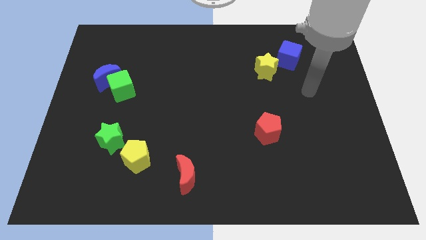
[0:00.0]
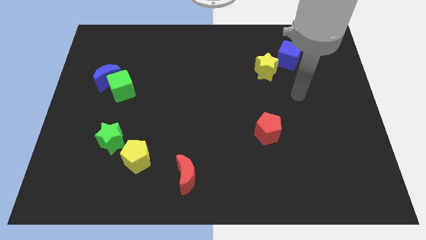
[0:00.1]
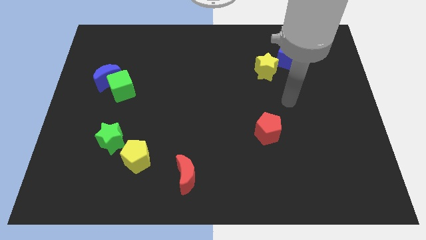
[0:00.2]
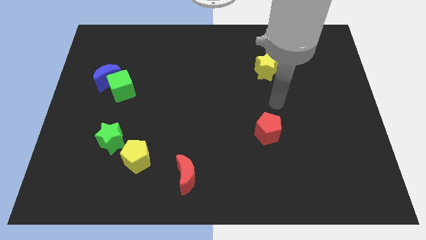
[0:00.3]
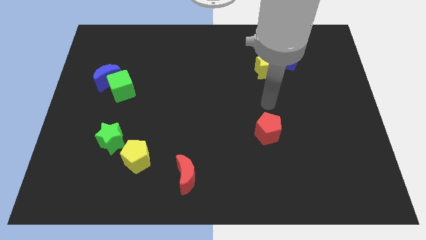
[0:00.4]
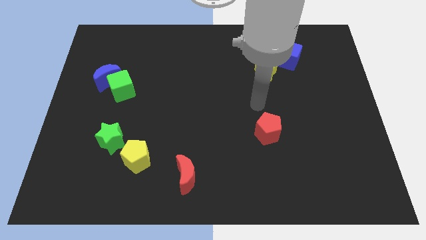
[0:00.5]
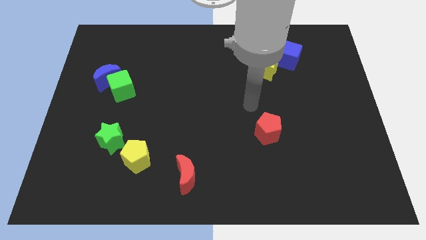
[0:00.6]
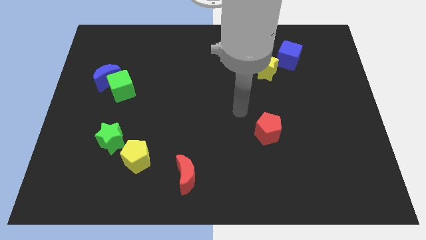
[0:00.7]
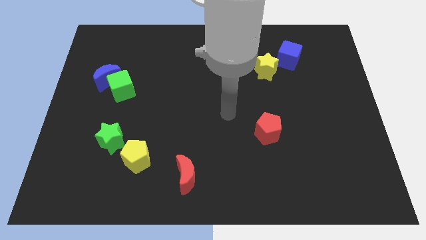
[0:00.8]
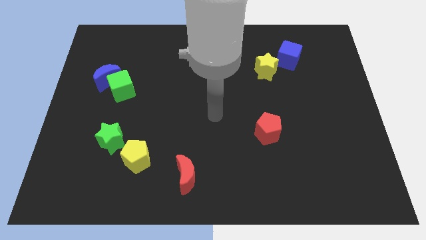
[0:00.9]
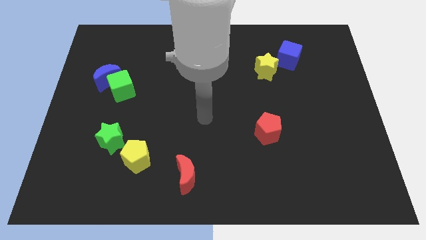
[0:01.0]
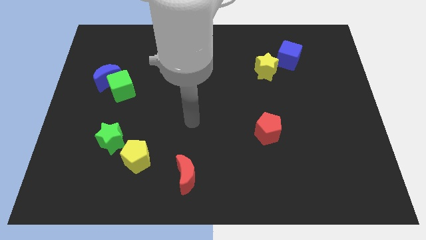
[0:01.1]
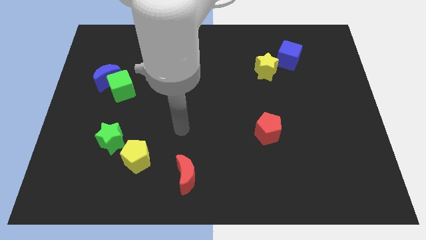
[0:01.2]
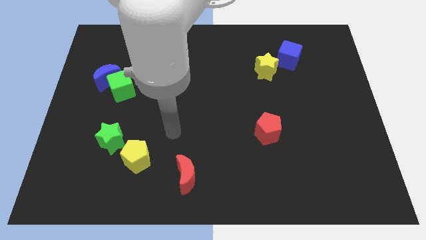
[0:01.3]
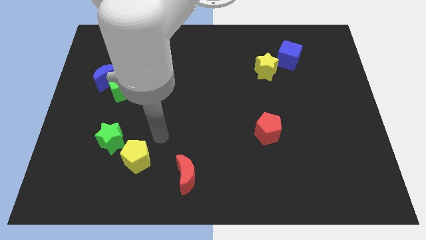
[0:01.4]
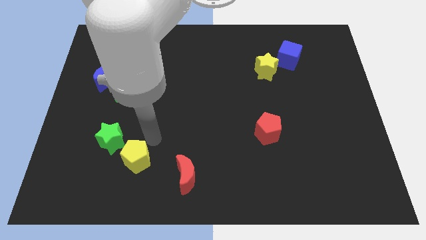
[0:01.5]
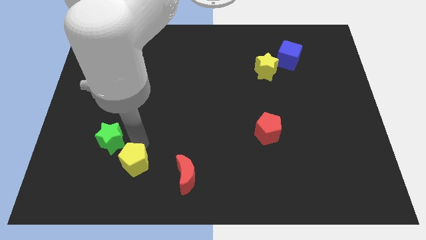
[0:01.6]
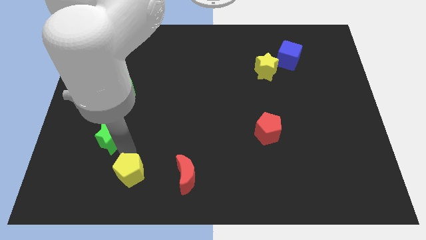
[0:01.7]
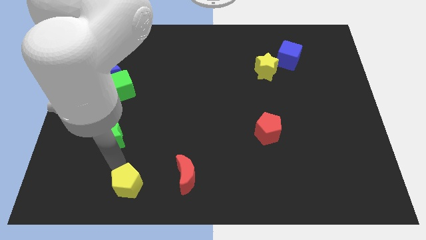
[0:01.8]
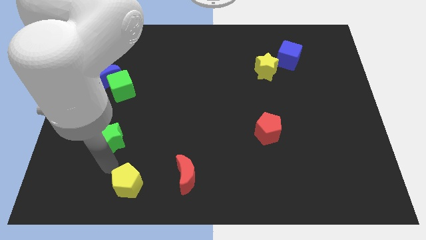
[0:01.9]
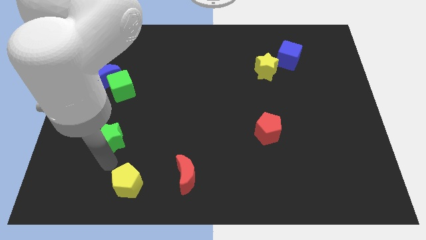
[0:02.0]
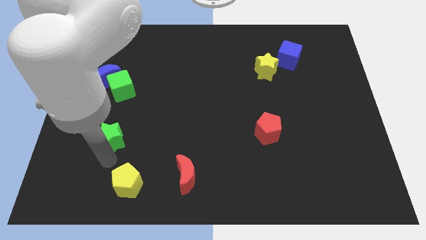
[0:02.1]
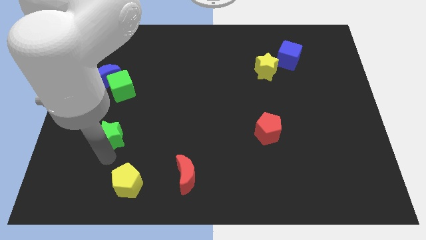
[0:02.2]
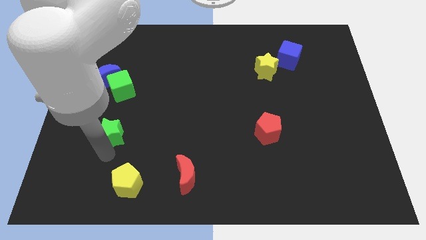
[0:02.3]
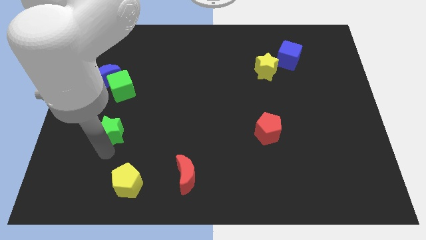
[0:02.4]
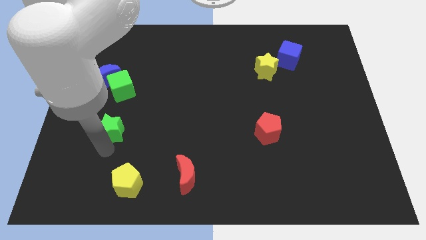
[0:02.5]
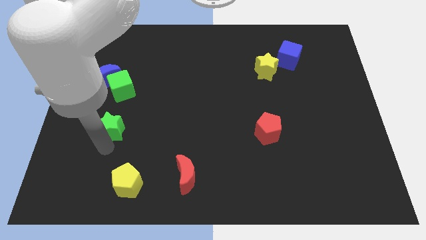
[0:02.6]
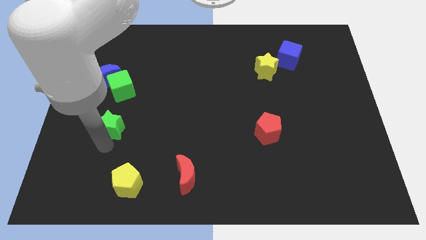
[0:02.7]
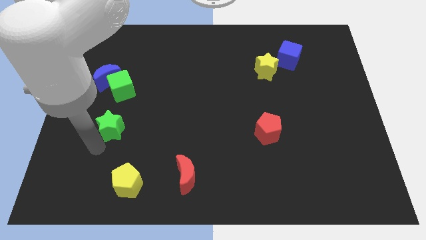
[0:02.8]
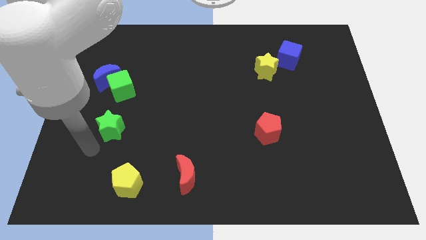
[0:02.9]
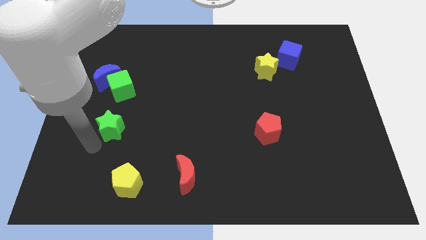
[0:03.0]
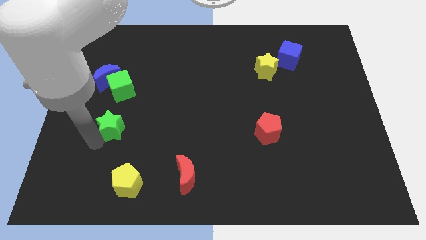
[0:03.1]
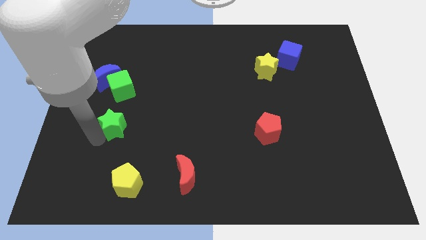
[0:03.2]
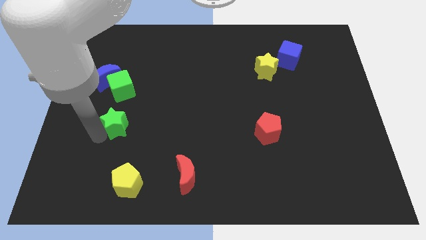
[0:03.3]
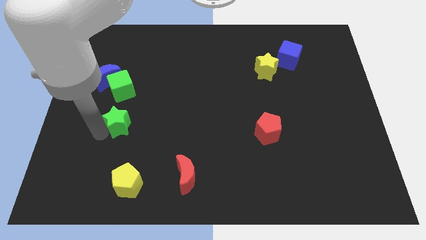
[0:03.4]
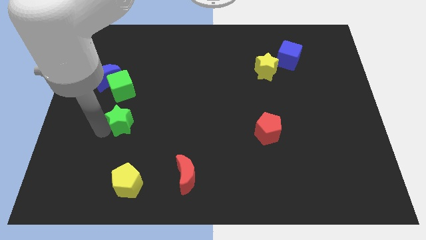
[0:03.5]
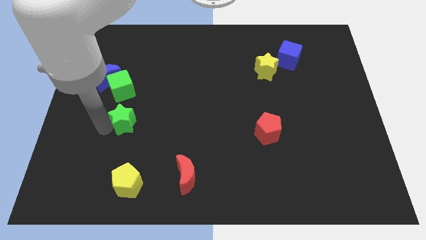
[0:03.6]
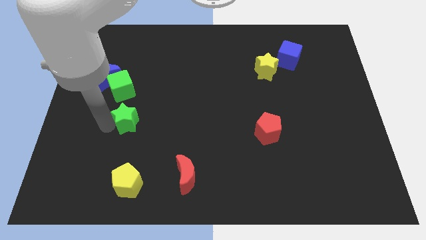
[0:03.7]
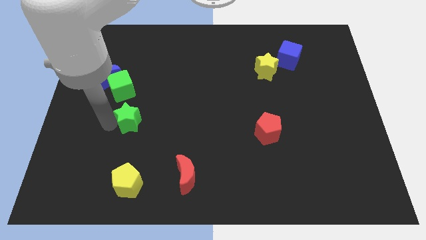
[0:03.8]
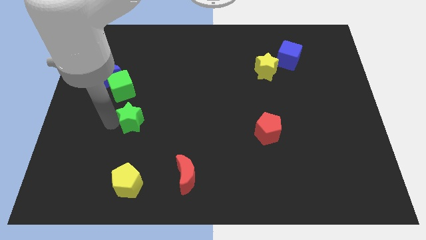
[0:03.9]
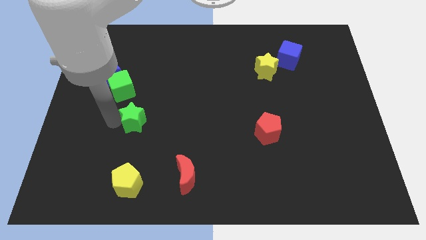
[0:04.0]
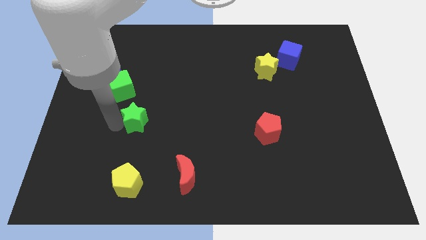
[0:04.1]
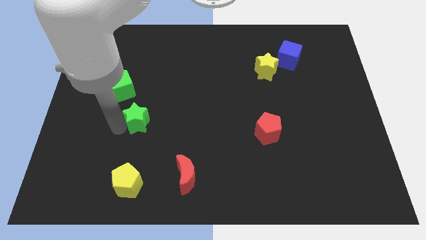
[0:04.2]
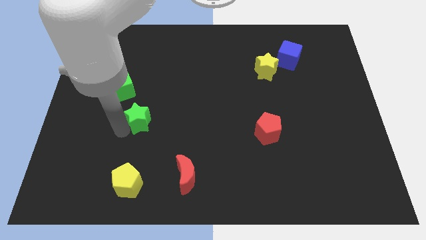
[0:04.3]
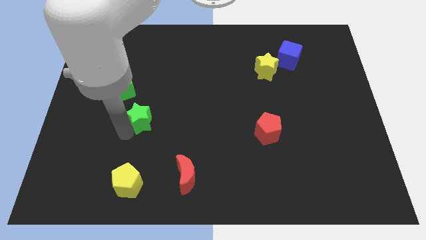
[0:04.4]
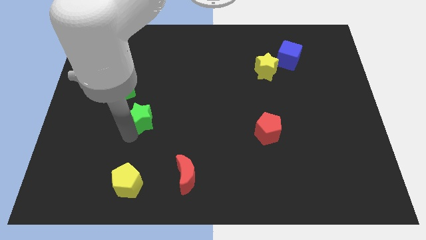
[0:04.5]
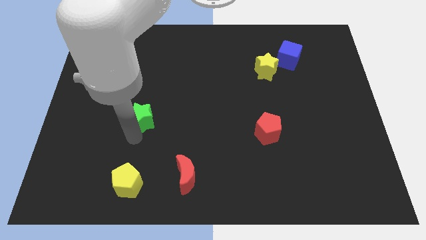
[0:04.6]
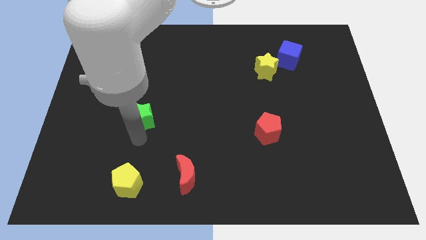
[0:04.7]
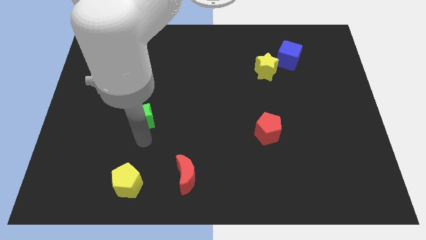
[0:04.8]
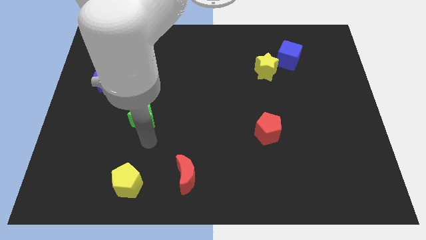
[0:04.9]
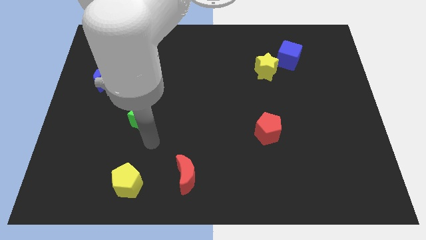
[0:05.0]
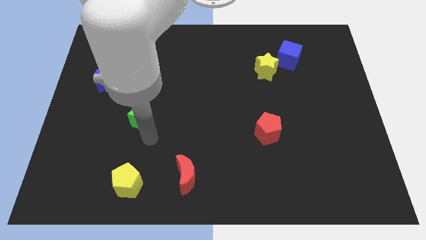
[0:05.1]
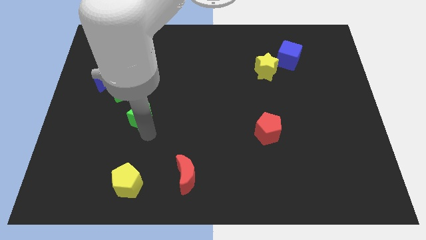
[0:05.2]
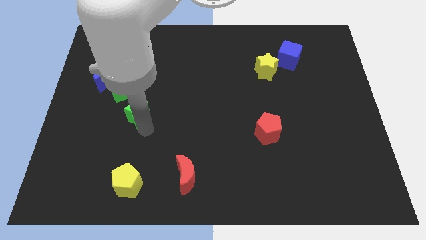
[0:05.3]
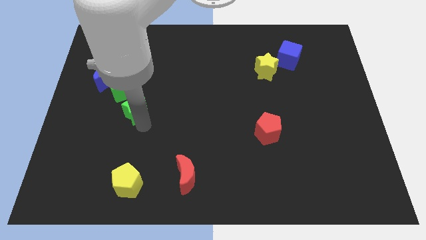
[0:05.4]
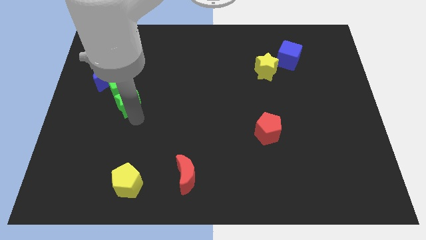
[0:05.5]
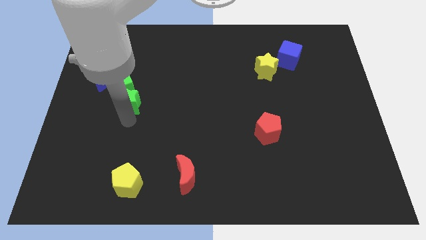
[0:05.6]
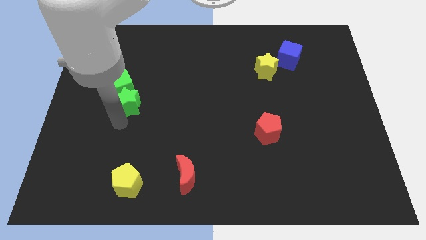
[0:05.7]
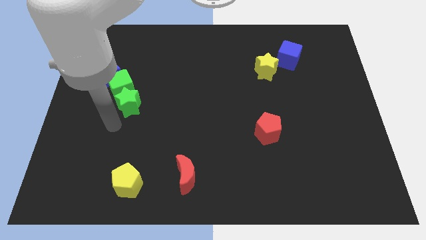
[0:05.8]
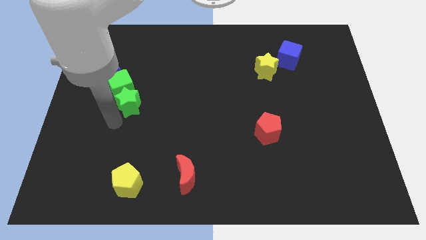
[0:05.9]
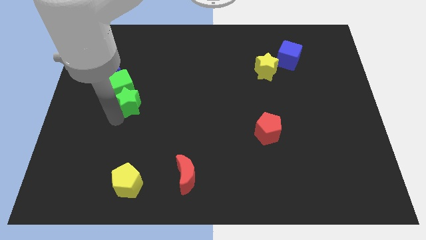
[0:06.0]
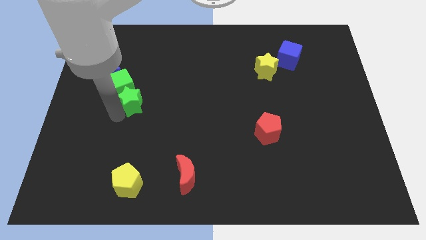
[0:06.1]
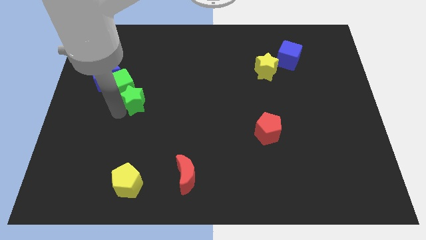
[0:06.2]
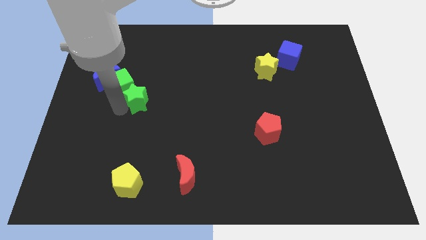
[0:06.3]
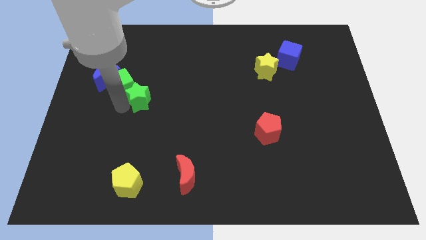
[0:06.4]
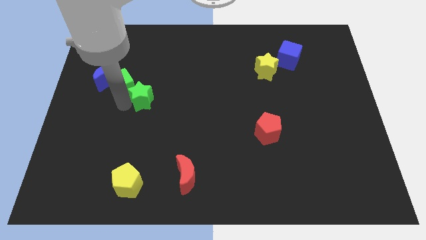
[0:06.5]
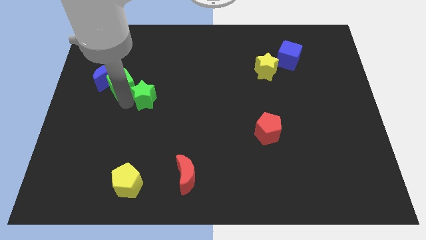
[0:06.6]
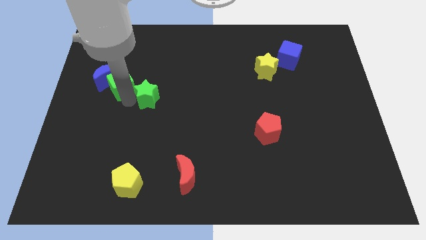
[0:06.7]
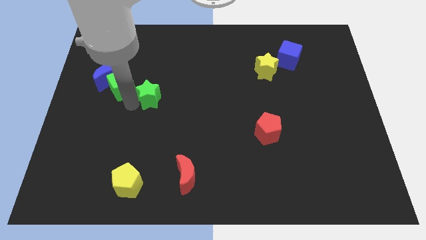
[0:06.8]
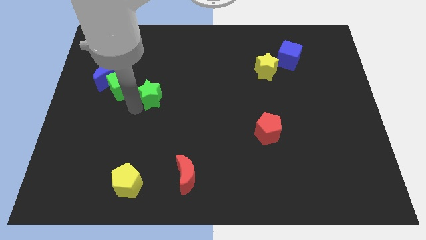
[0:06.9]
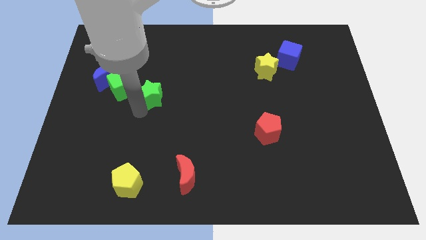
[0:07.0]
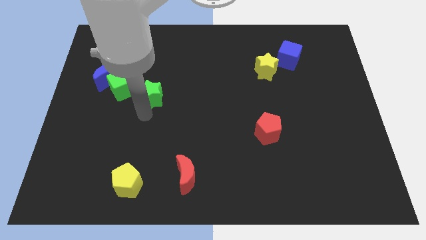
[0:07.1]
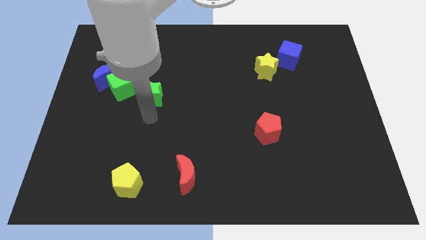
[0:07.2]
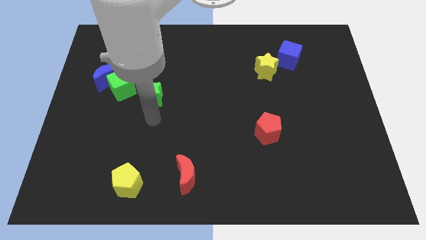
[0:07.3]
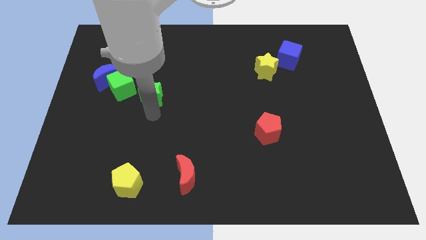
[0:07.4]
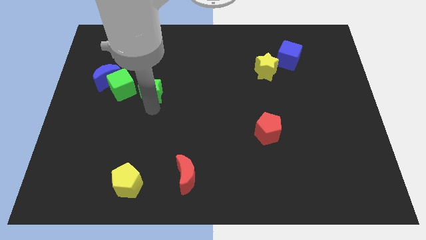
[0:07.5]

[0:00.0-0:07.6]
put the green star right of the blue moon
